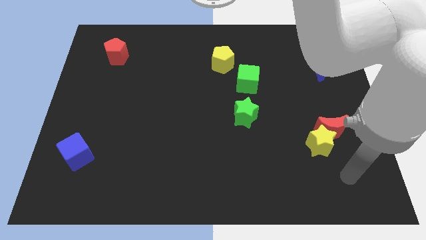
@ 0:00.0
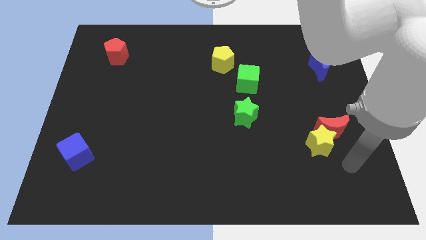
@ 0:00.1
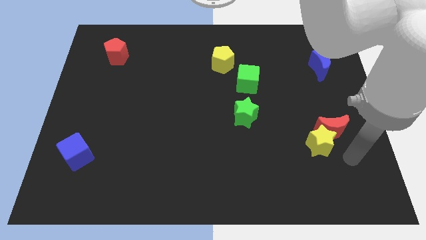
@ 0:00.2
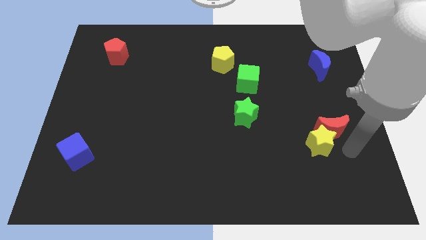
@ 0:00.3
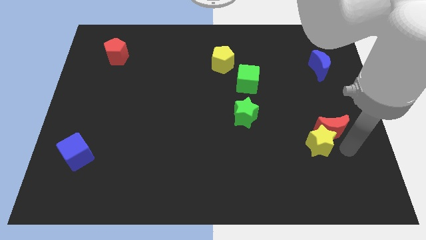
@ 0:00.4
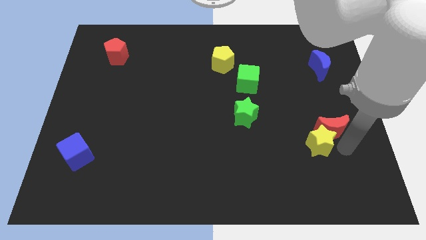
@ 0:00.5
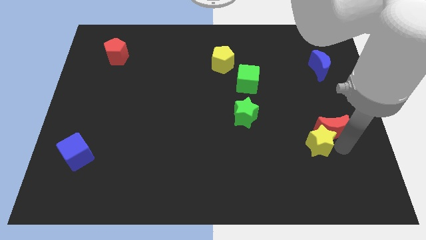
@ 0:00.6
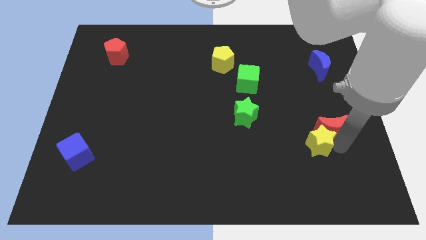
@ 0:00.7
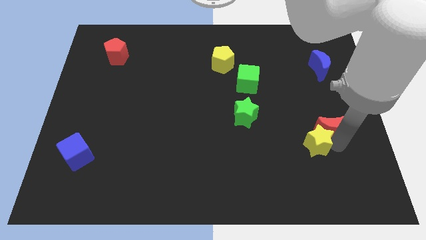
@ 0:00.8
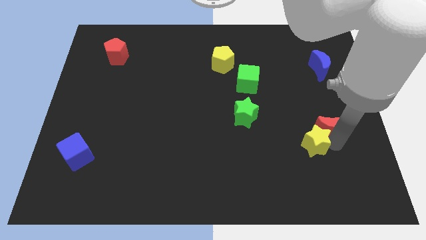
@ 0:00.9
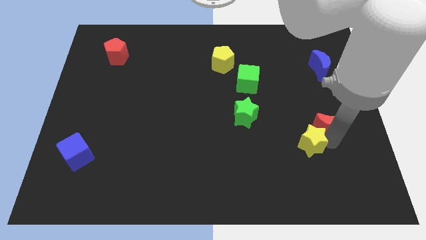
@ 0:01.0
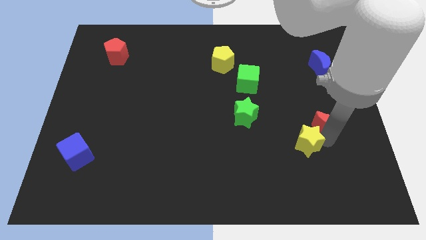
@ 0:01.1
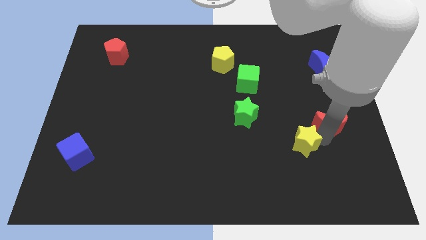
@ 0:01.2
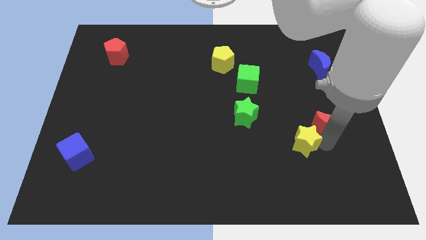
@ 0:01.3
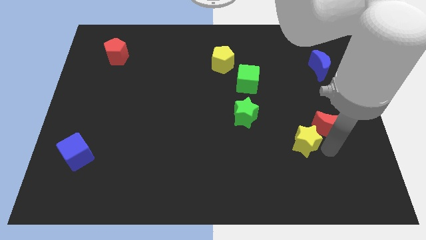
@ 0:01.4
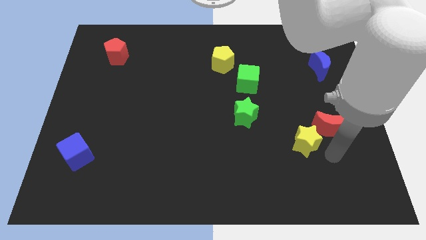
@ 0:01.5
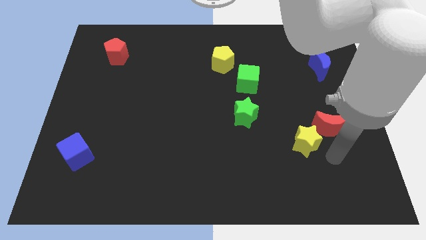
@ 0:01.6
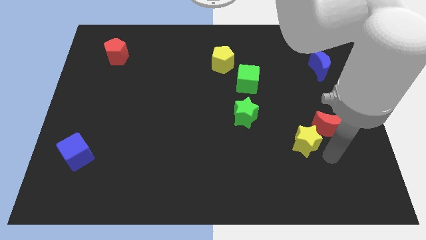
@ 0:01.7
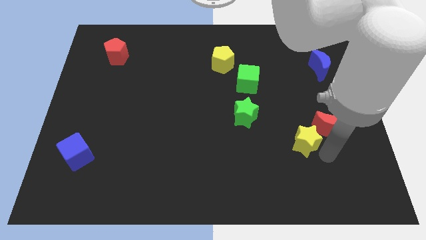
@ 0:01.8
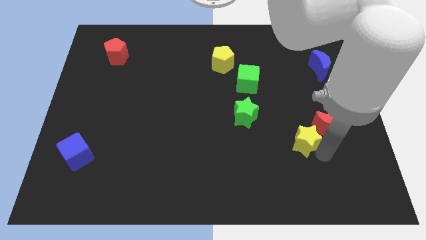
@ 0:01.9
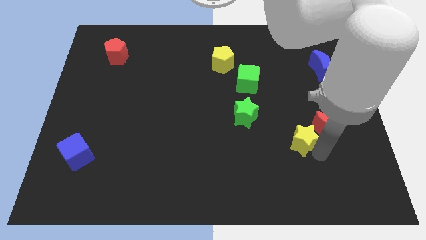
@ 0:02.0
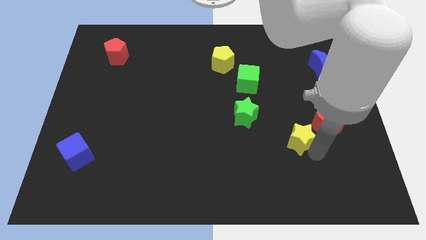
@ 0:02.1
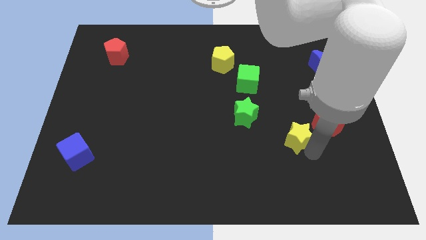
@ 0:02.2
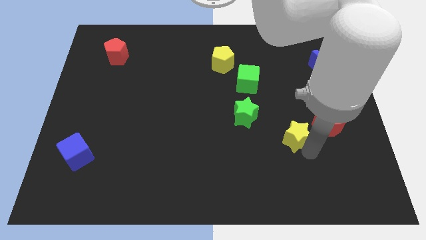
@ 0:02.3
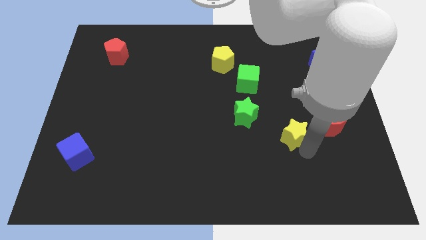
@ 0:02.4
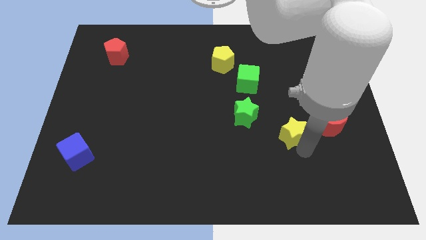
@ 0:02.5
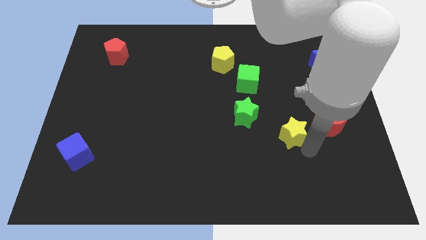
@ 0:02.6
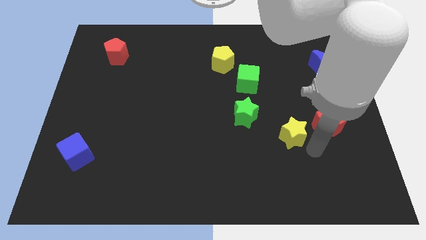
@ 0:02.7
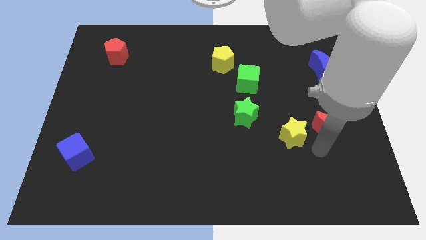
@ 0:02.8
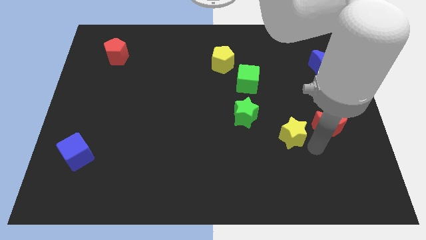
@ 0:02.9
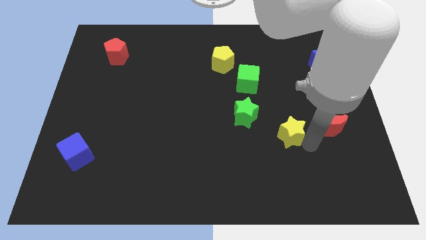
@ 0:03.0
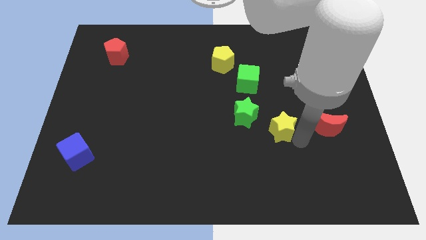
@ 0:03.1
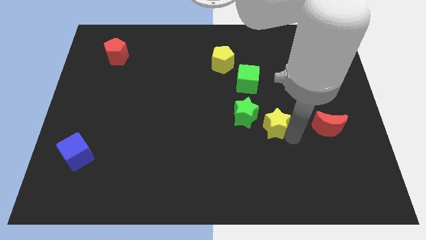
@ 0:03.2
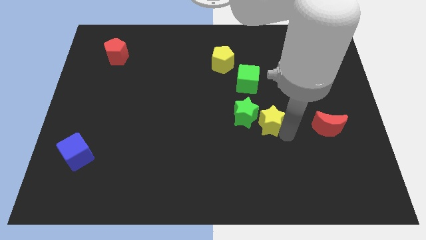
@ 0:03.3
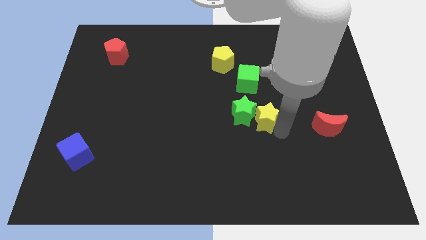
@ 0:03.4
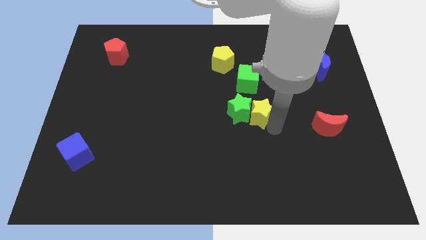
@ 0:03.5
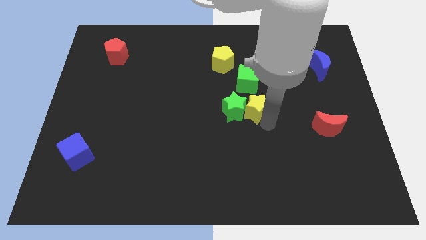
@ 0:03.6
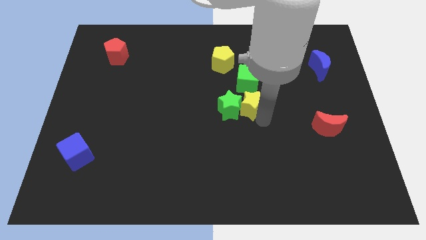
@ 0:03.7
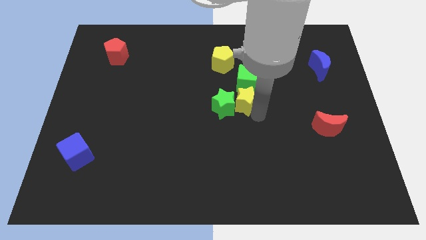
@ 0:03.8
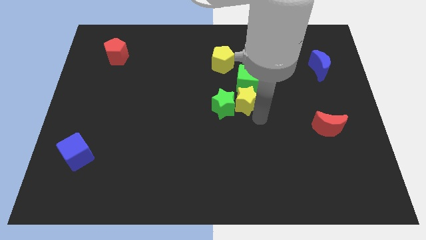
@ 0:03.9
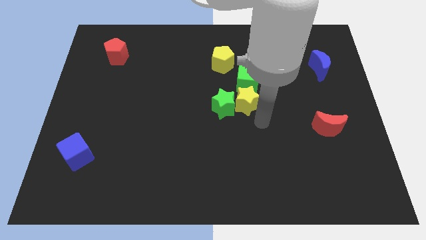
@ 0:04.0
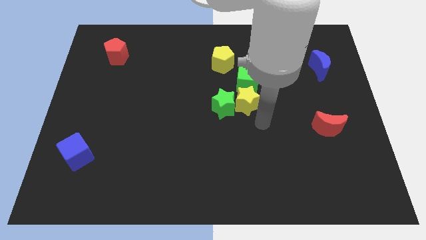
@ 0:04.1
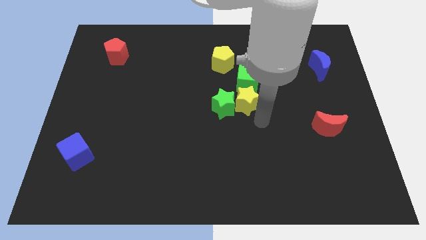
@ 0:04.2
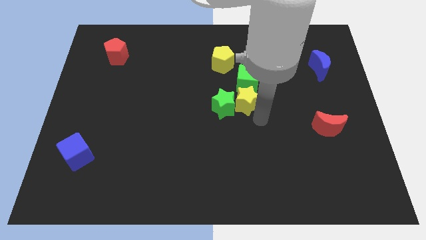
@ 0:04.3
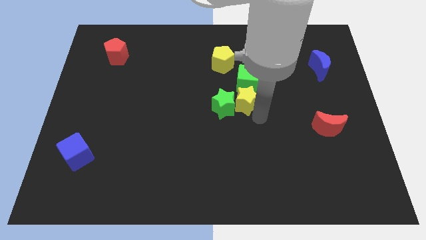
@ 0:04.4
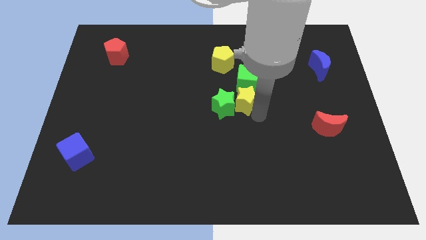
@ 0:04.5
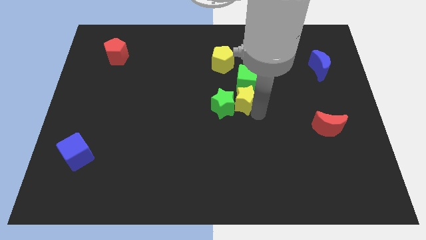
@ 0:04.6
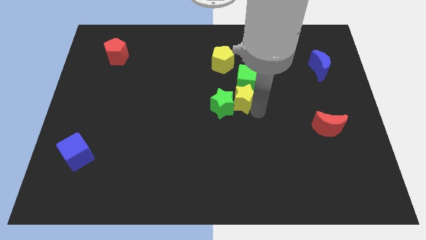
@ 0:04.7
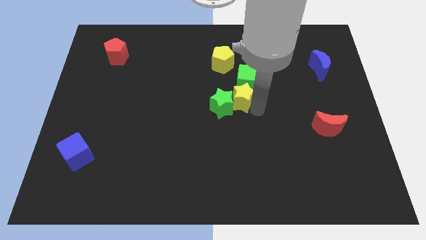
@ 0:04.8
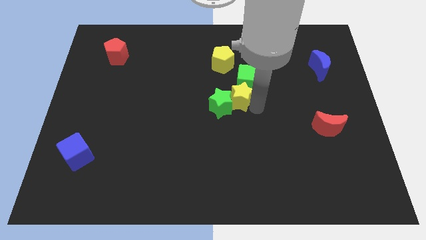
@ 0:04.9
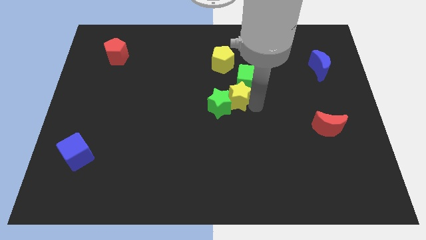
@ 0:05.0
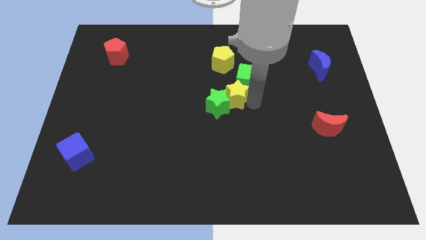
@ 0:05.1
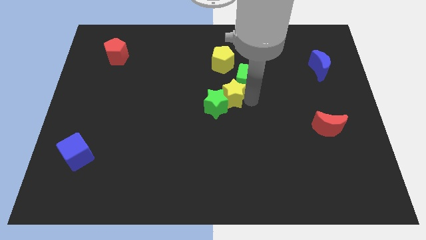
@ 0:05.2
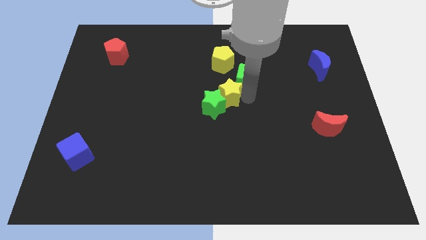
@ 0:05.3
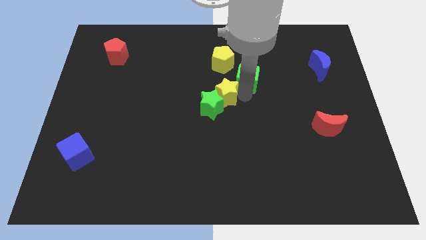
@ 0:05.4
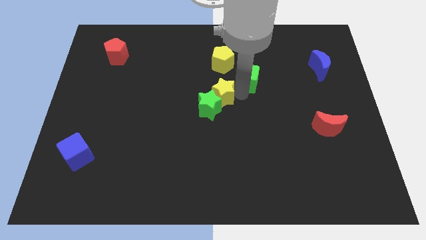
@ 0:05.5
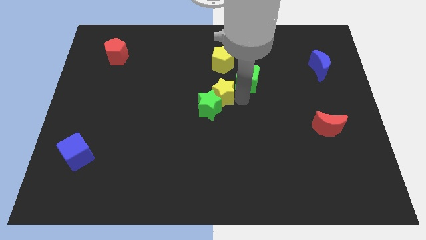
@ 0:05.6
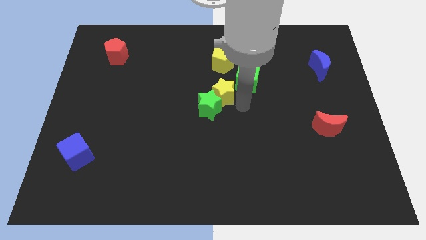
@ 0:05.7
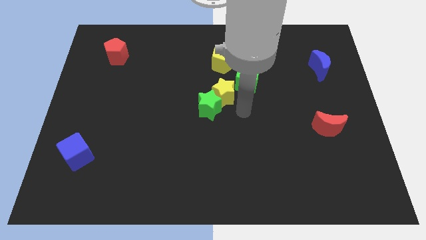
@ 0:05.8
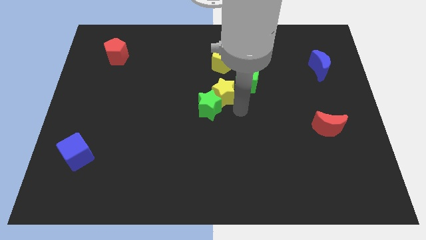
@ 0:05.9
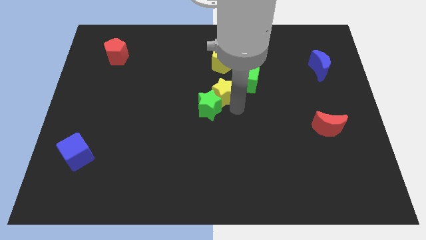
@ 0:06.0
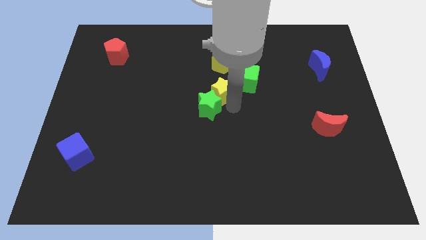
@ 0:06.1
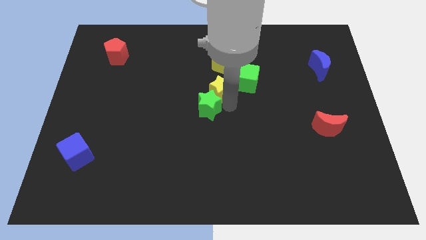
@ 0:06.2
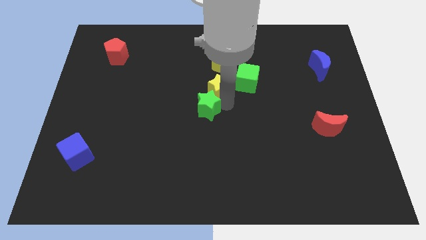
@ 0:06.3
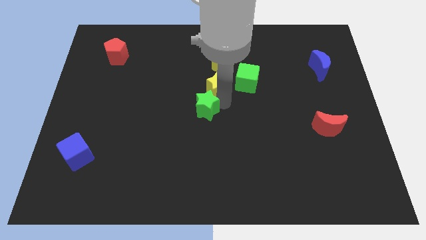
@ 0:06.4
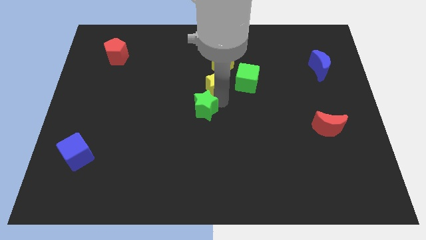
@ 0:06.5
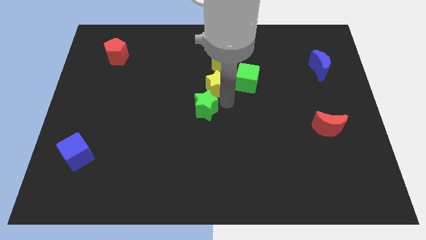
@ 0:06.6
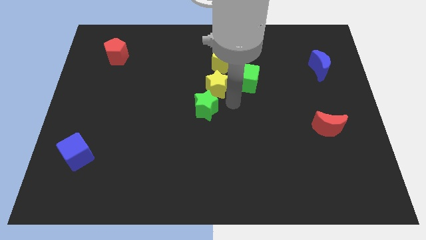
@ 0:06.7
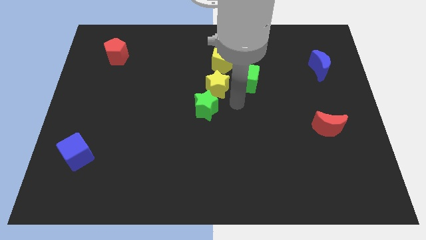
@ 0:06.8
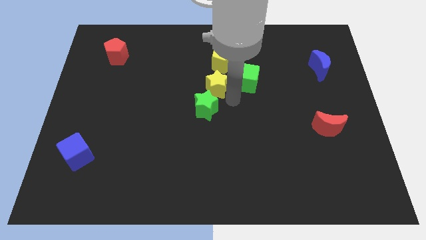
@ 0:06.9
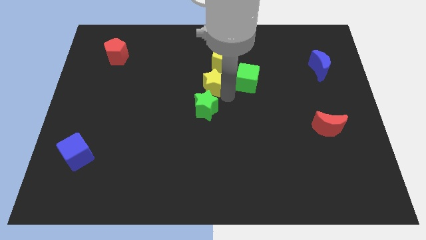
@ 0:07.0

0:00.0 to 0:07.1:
slide the yellow star to the bottom left side of the yellow pentagon

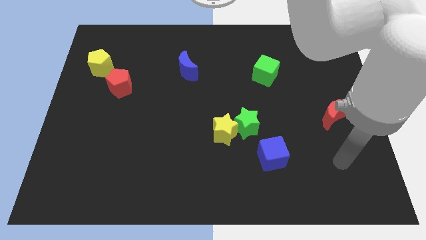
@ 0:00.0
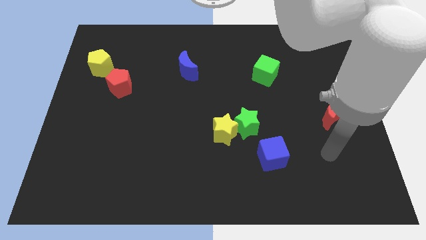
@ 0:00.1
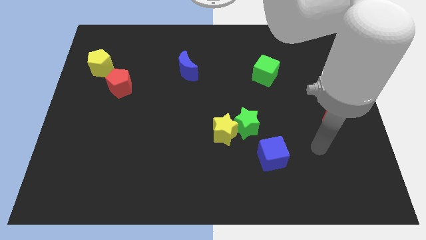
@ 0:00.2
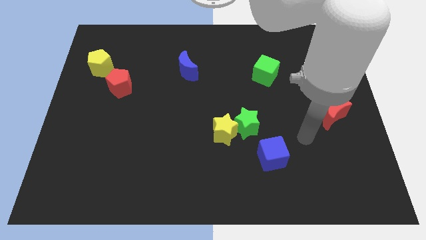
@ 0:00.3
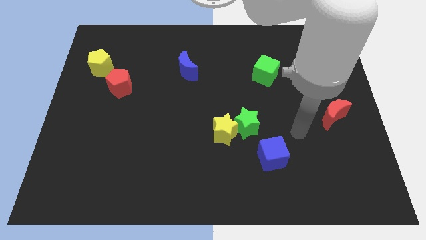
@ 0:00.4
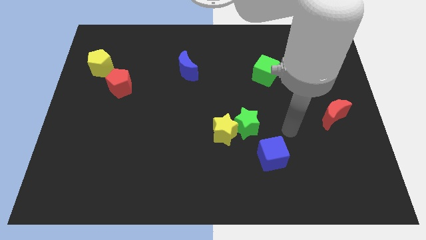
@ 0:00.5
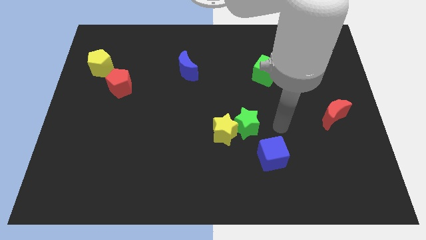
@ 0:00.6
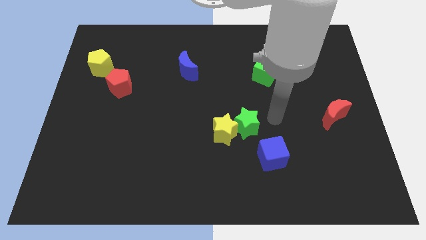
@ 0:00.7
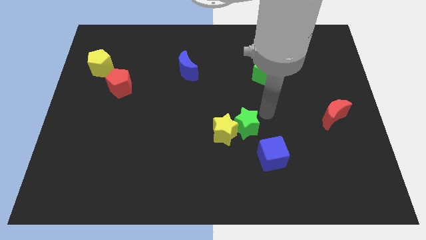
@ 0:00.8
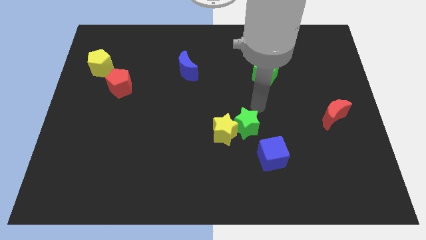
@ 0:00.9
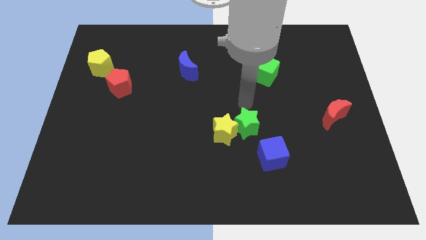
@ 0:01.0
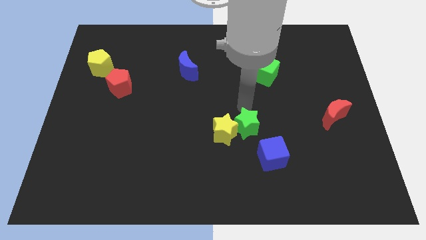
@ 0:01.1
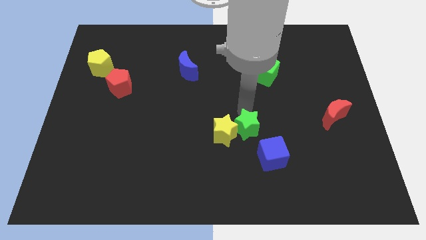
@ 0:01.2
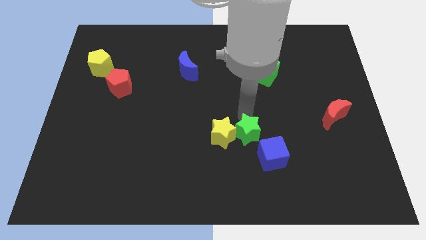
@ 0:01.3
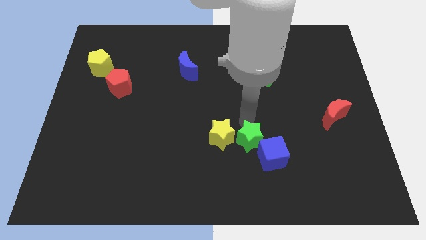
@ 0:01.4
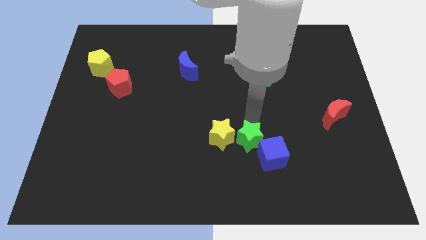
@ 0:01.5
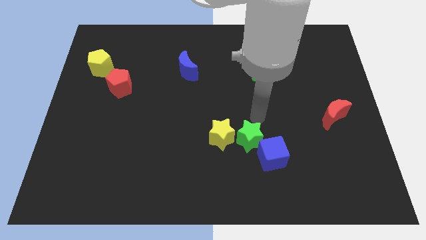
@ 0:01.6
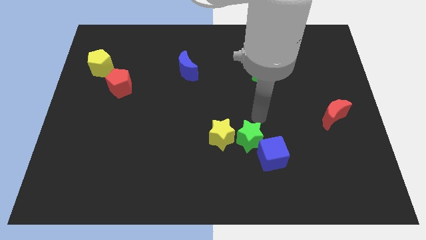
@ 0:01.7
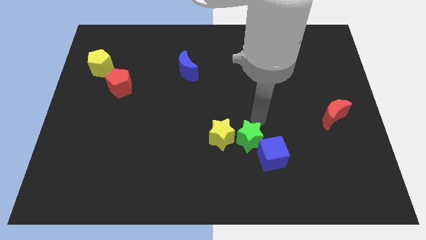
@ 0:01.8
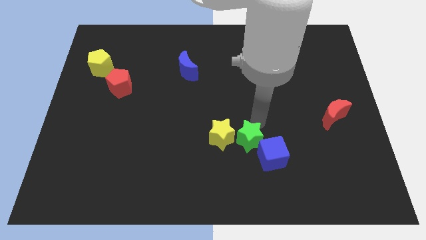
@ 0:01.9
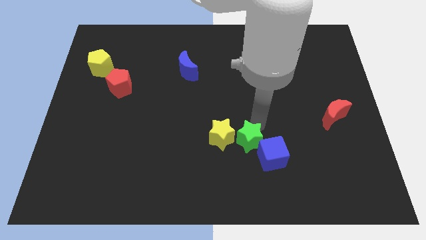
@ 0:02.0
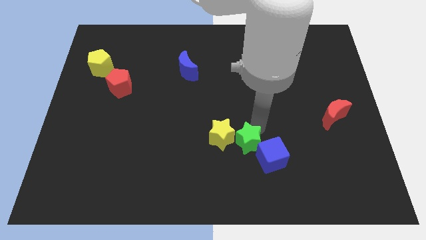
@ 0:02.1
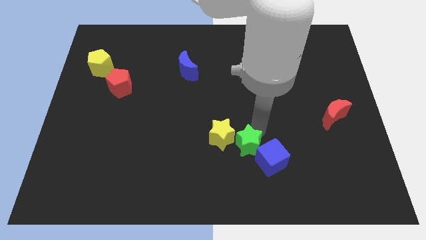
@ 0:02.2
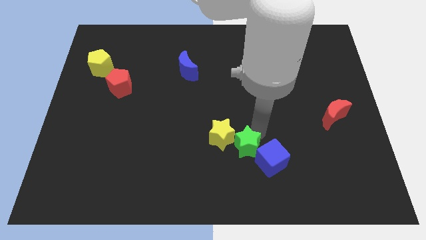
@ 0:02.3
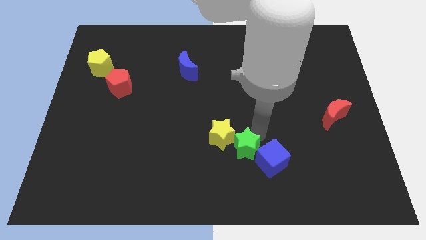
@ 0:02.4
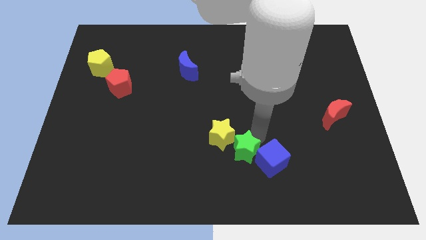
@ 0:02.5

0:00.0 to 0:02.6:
put the green star to the bottom side of the yellow star
